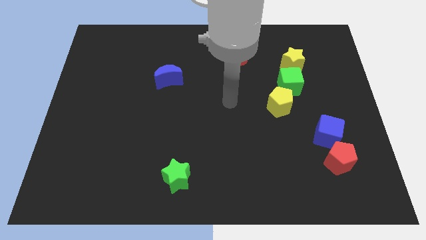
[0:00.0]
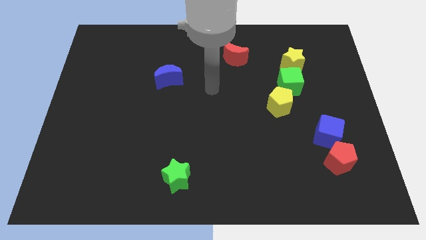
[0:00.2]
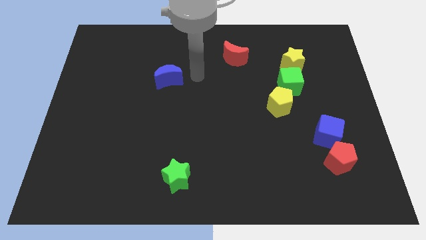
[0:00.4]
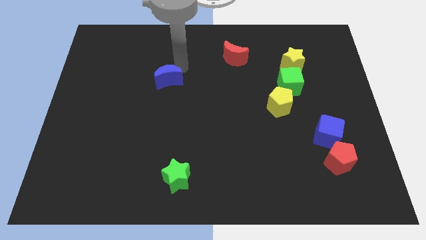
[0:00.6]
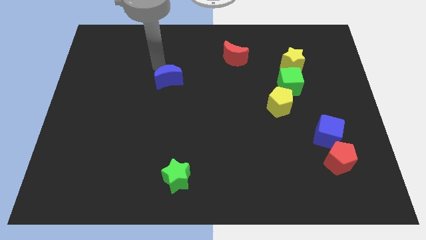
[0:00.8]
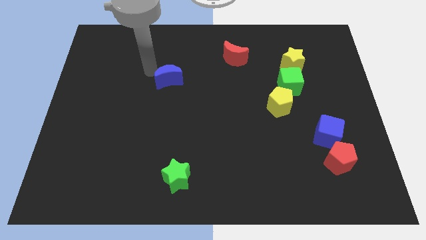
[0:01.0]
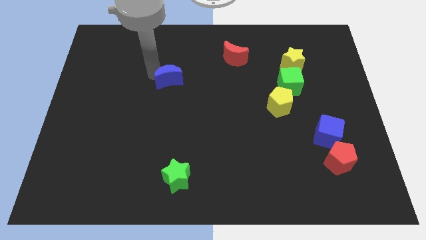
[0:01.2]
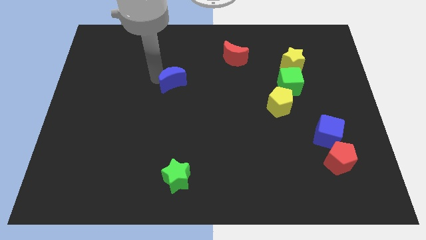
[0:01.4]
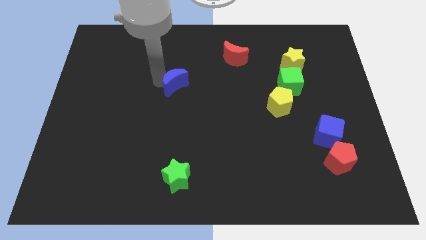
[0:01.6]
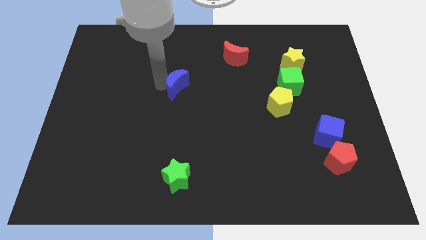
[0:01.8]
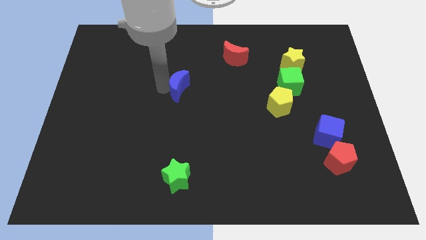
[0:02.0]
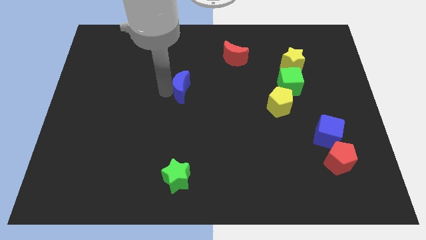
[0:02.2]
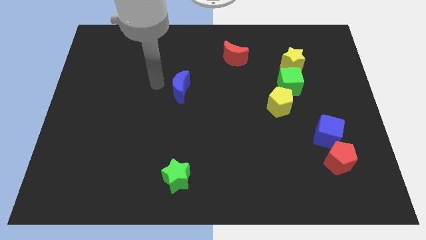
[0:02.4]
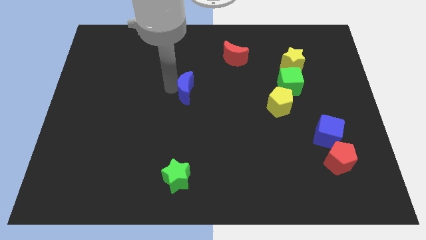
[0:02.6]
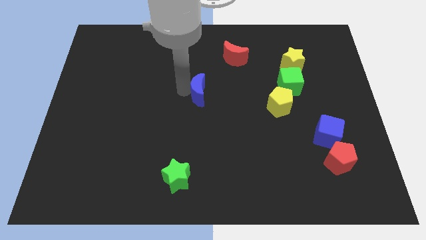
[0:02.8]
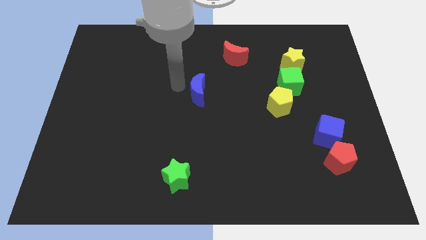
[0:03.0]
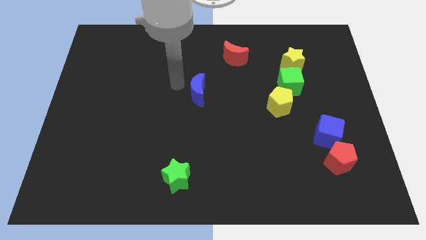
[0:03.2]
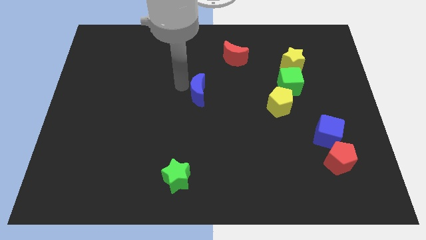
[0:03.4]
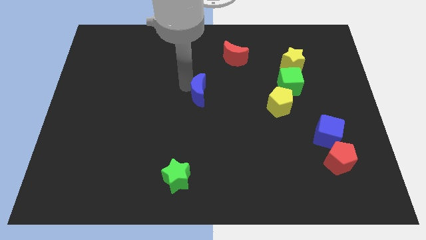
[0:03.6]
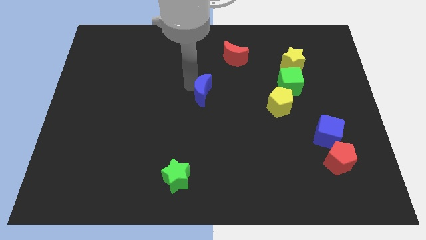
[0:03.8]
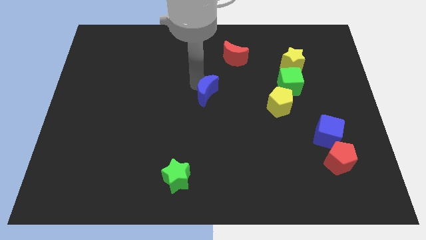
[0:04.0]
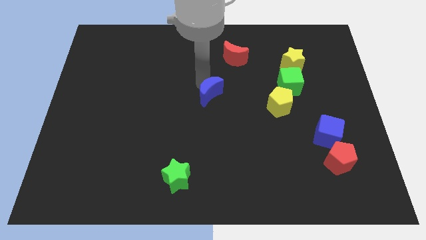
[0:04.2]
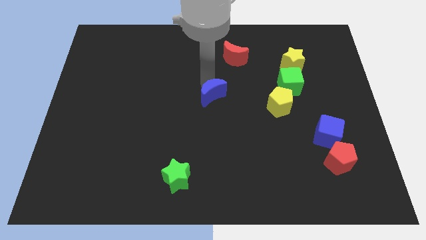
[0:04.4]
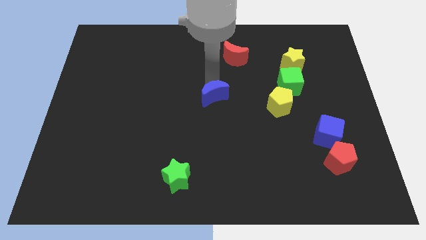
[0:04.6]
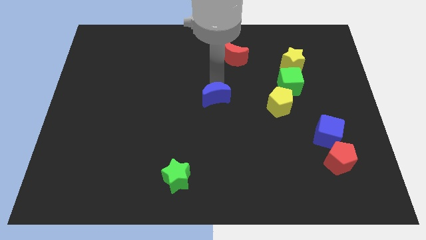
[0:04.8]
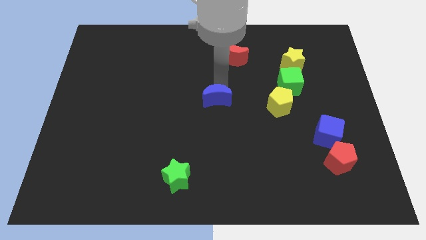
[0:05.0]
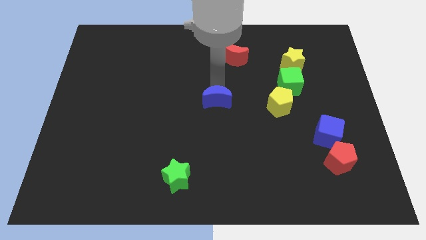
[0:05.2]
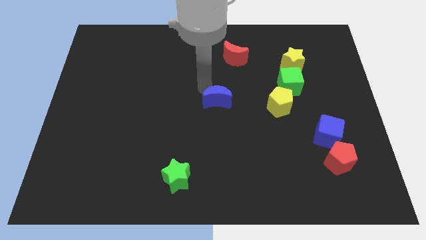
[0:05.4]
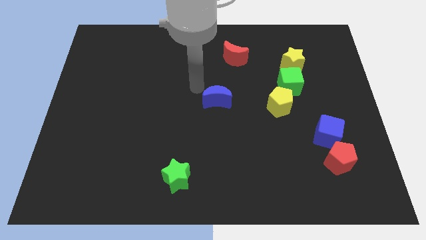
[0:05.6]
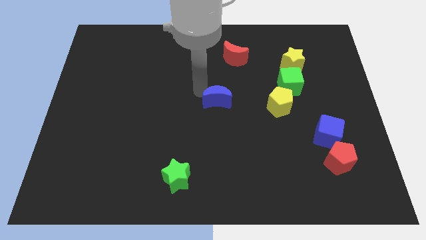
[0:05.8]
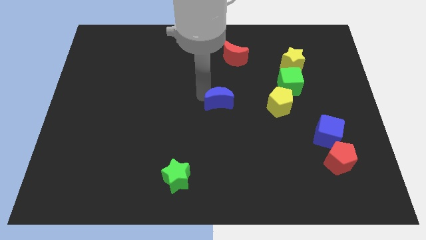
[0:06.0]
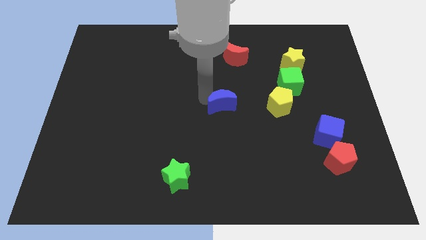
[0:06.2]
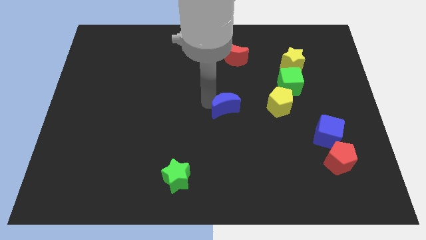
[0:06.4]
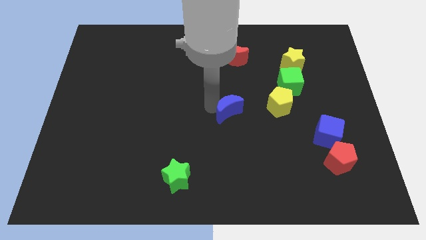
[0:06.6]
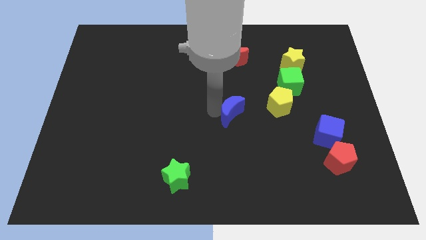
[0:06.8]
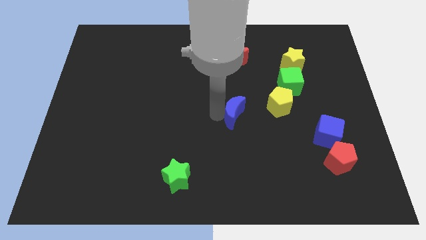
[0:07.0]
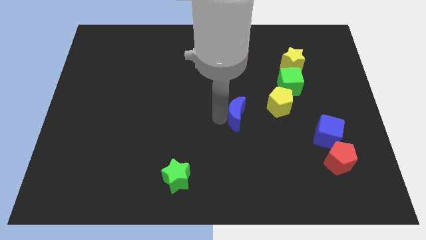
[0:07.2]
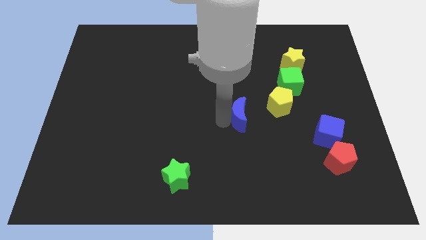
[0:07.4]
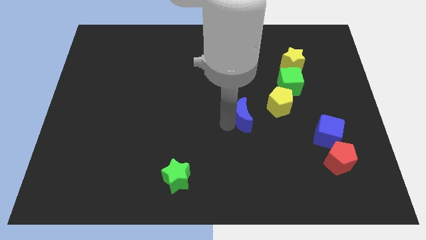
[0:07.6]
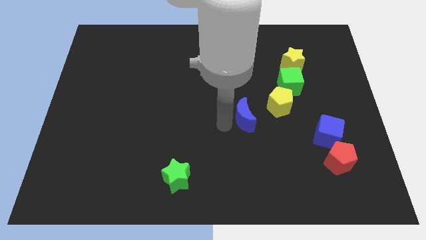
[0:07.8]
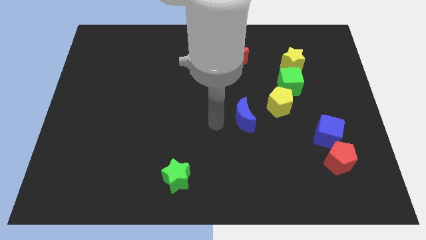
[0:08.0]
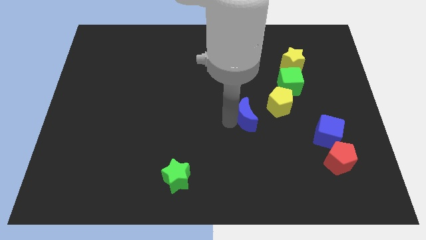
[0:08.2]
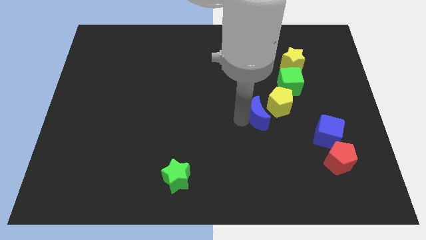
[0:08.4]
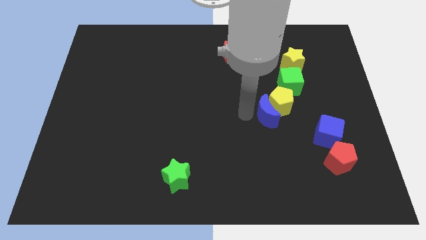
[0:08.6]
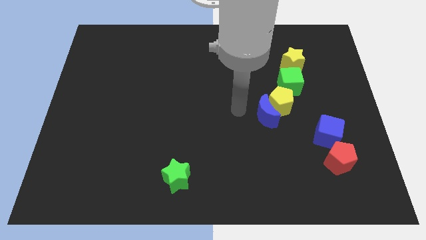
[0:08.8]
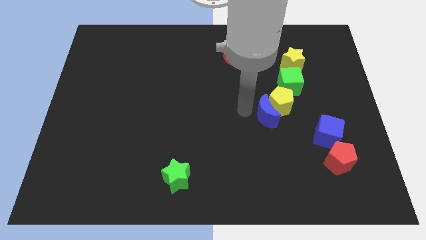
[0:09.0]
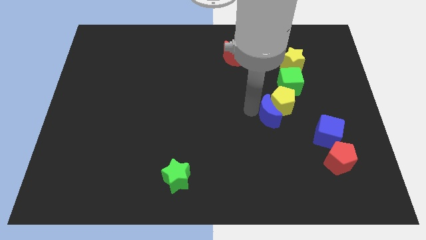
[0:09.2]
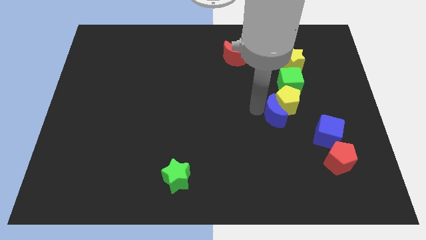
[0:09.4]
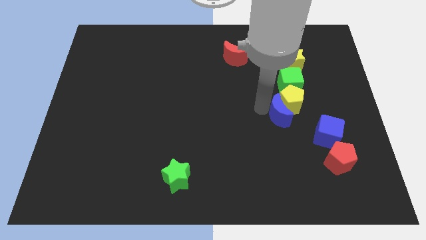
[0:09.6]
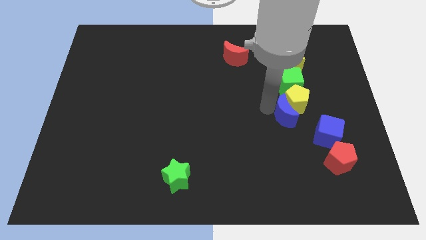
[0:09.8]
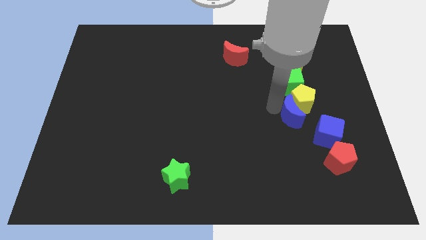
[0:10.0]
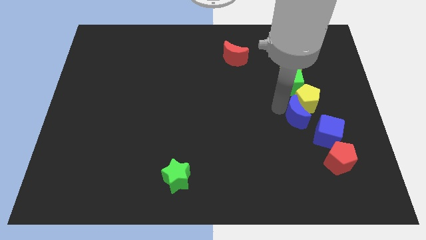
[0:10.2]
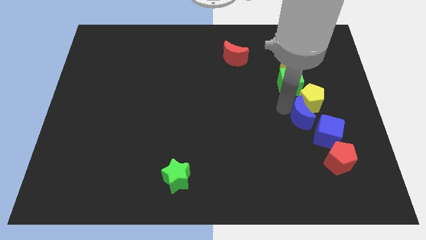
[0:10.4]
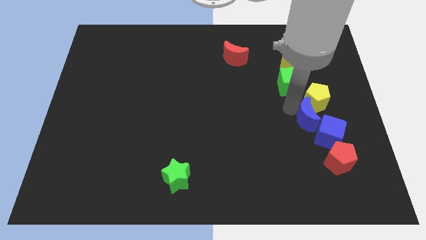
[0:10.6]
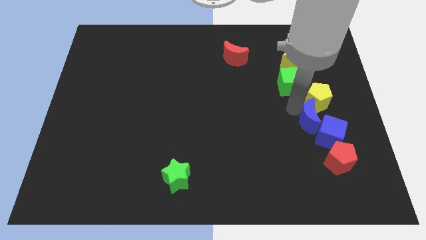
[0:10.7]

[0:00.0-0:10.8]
push the blue moon close to the blue cube

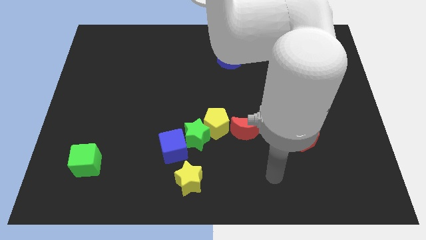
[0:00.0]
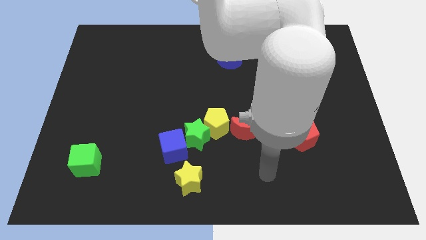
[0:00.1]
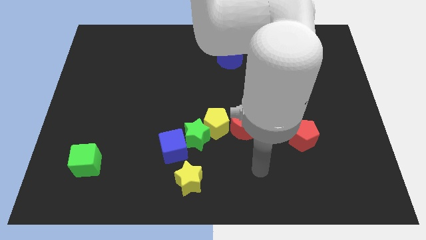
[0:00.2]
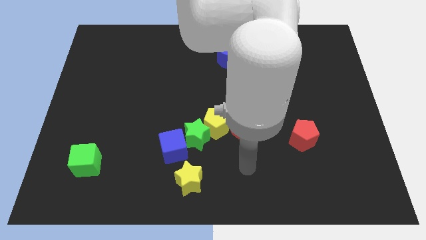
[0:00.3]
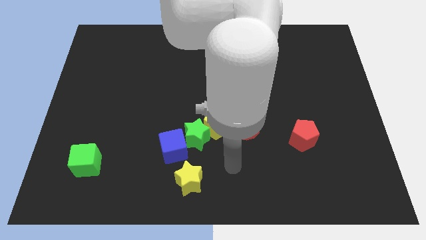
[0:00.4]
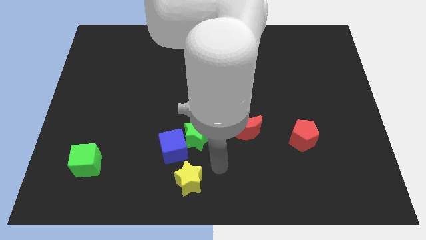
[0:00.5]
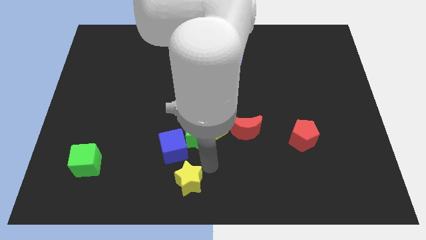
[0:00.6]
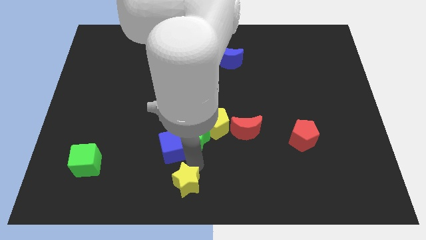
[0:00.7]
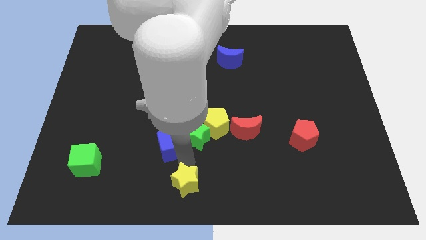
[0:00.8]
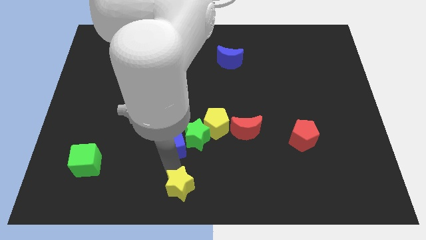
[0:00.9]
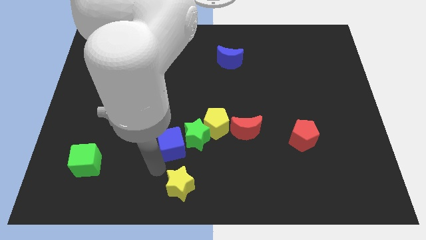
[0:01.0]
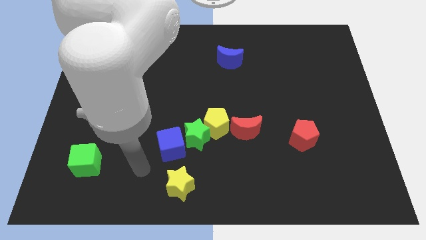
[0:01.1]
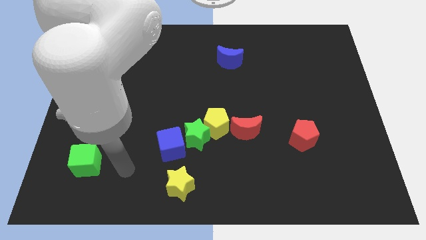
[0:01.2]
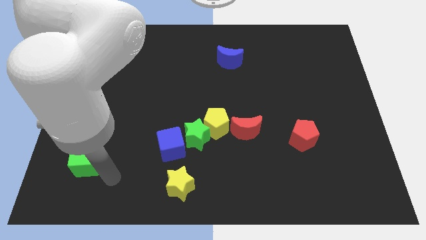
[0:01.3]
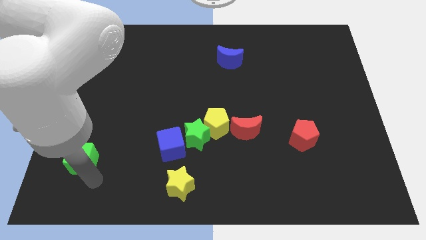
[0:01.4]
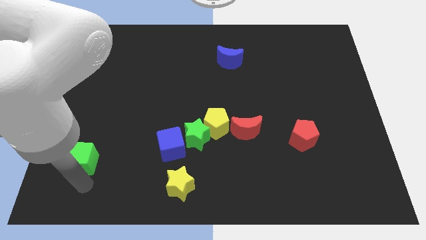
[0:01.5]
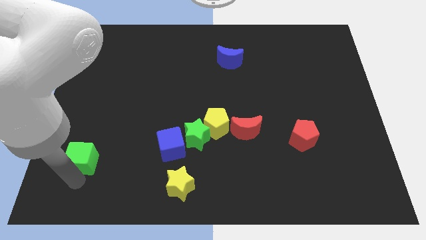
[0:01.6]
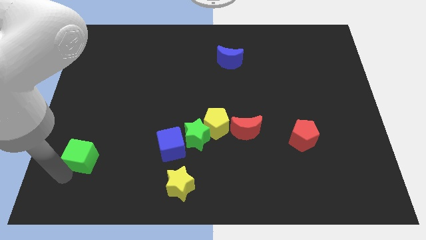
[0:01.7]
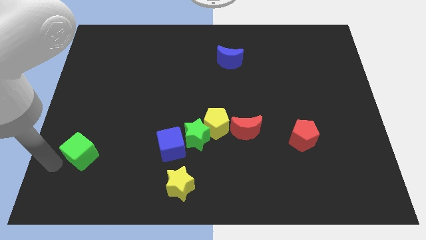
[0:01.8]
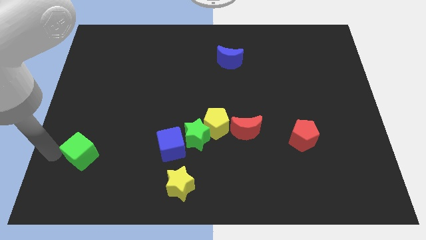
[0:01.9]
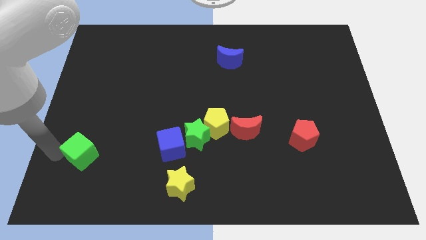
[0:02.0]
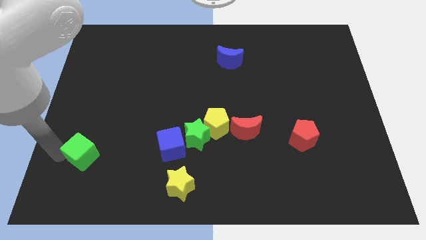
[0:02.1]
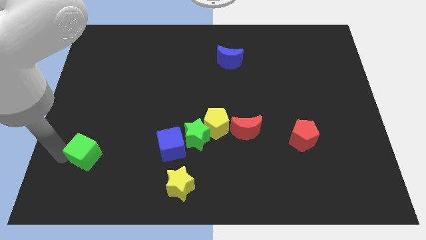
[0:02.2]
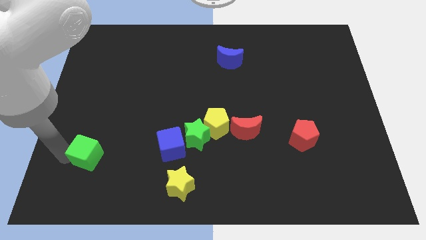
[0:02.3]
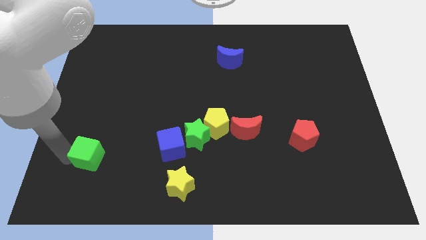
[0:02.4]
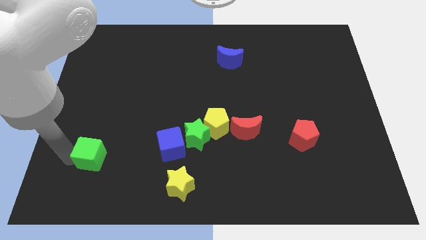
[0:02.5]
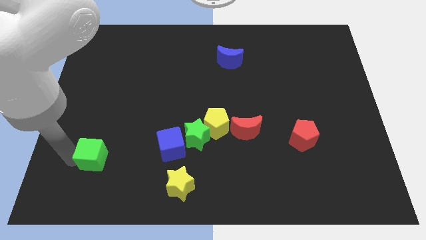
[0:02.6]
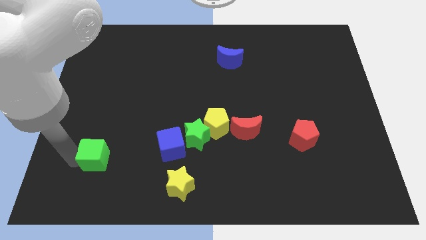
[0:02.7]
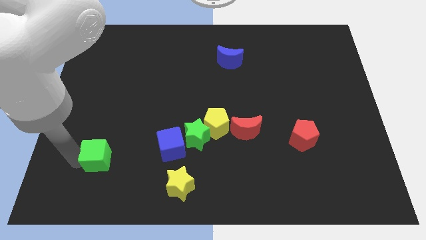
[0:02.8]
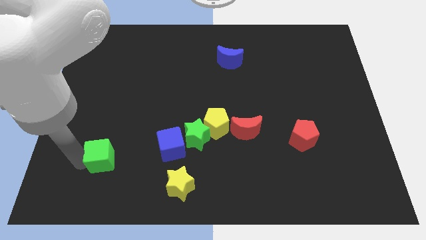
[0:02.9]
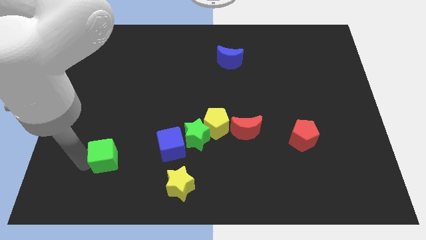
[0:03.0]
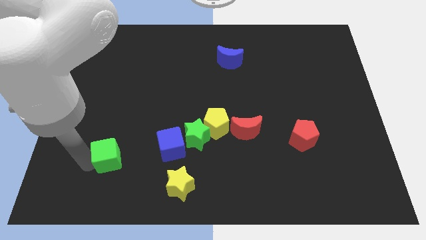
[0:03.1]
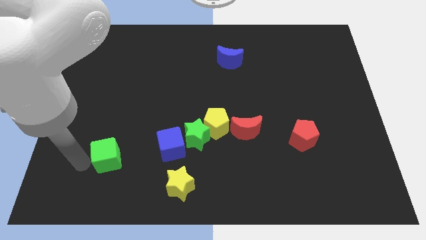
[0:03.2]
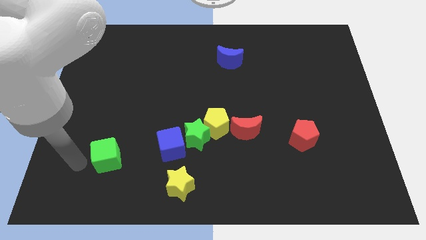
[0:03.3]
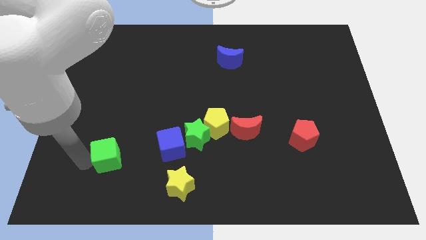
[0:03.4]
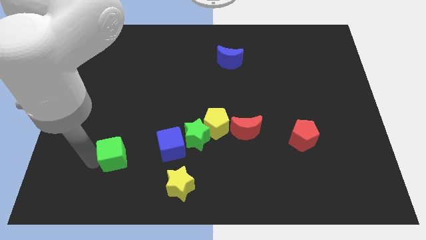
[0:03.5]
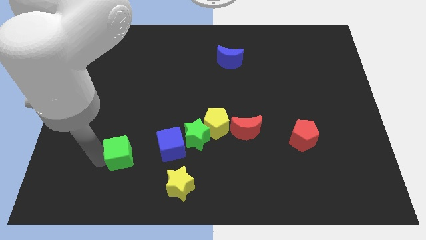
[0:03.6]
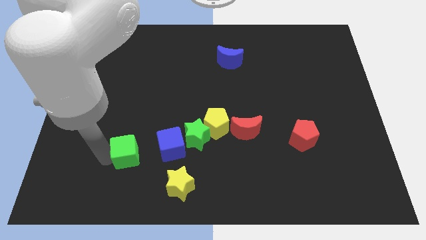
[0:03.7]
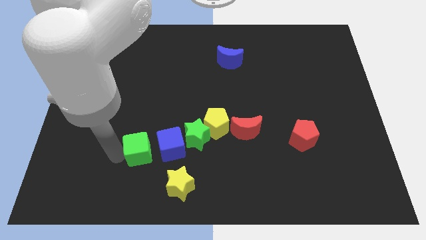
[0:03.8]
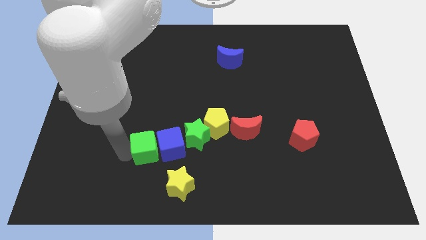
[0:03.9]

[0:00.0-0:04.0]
slide the green cube next to the blue cube
